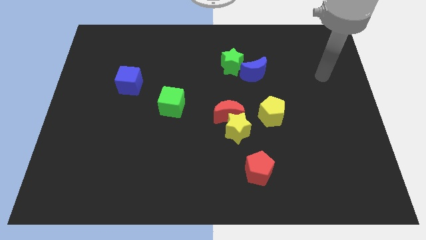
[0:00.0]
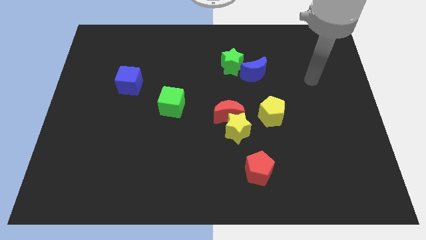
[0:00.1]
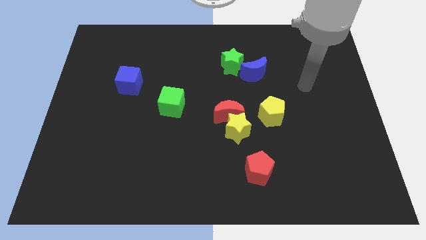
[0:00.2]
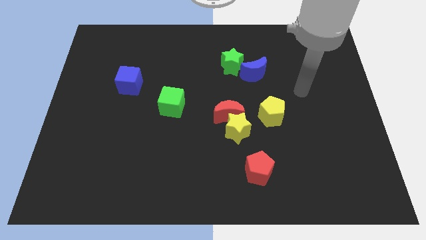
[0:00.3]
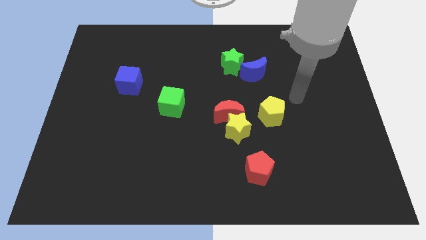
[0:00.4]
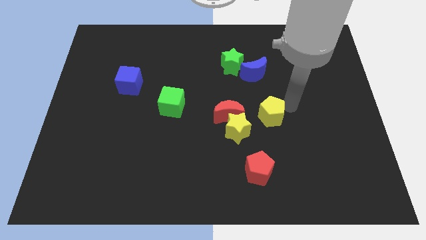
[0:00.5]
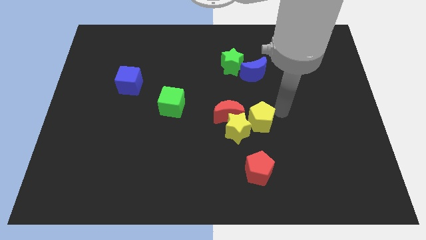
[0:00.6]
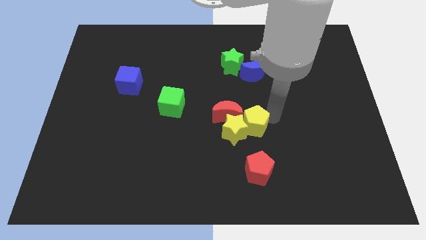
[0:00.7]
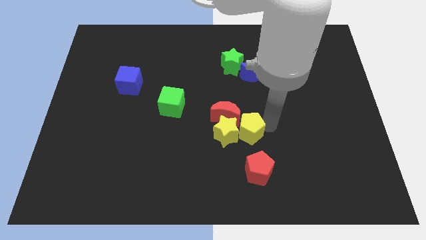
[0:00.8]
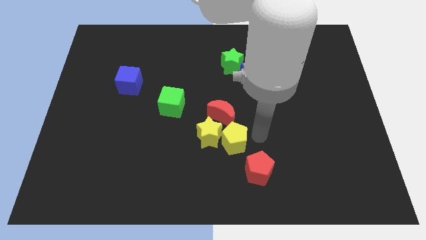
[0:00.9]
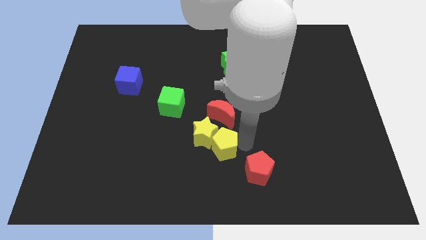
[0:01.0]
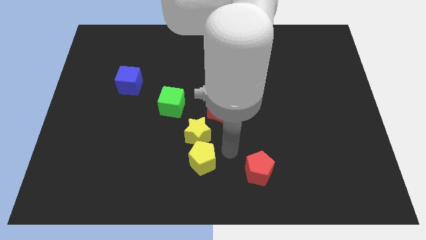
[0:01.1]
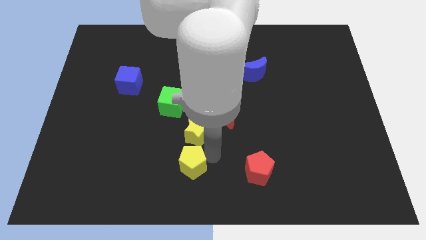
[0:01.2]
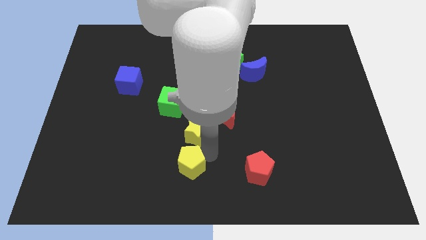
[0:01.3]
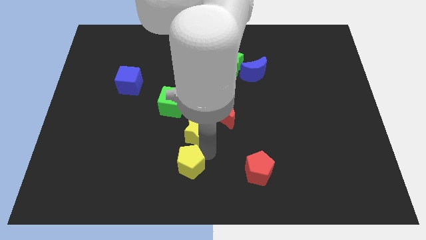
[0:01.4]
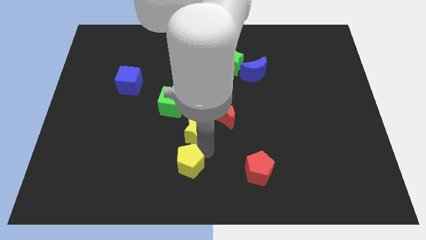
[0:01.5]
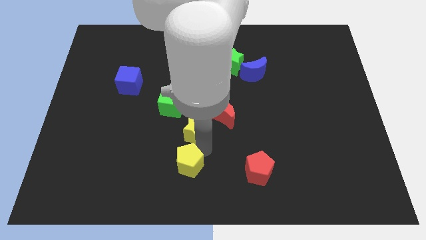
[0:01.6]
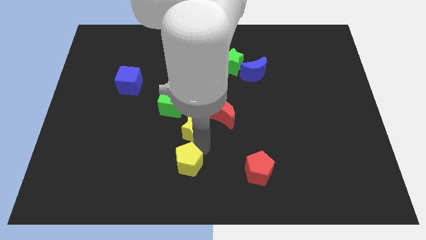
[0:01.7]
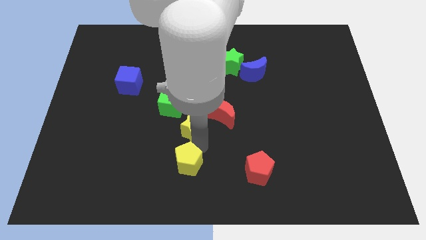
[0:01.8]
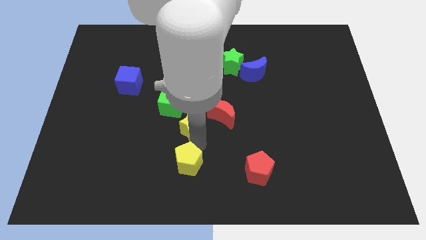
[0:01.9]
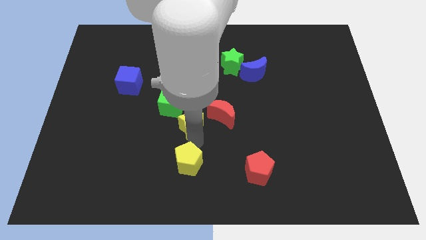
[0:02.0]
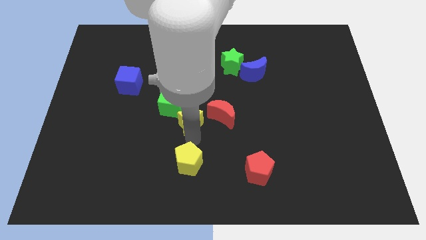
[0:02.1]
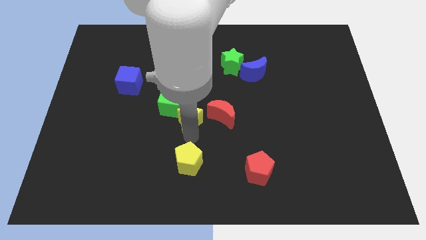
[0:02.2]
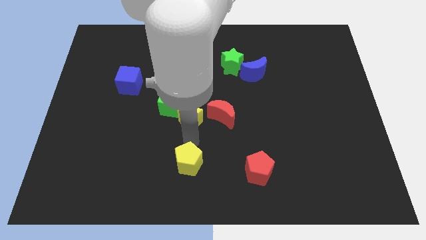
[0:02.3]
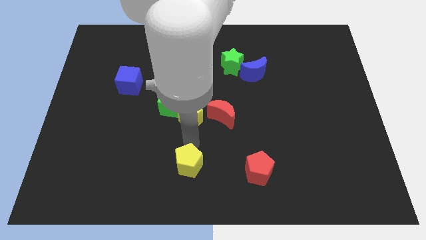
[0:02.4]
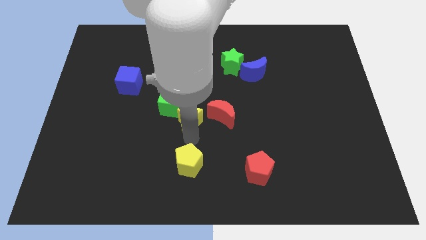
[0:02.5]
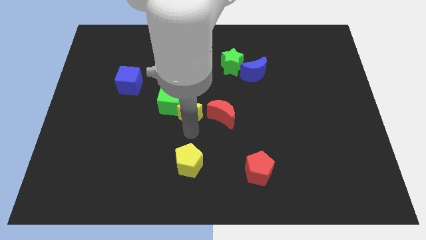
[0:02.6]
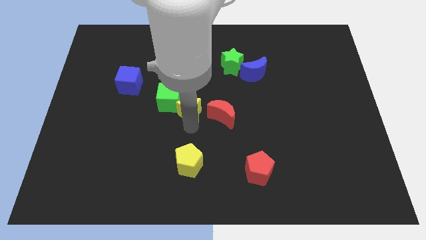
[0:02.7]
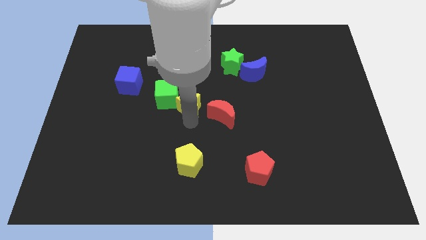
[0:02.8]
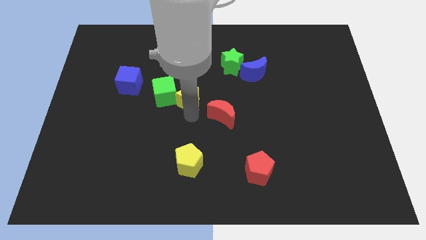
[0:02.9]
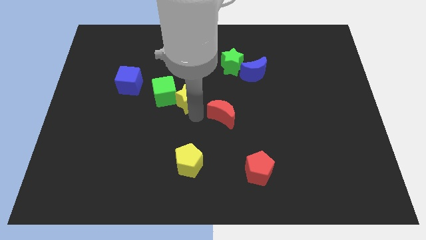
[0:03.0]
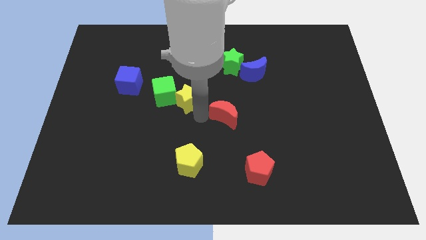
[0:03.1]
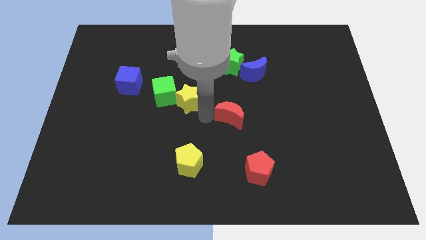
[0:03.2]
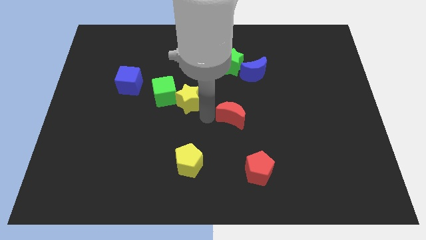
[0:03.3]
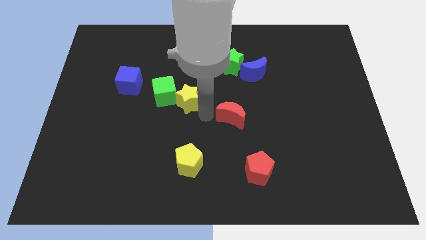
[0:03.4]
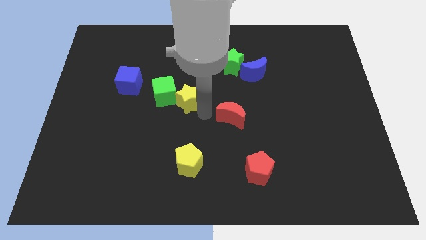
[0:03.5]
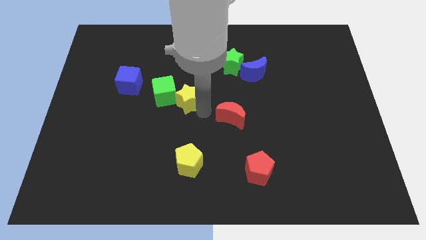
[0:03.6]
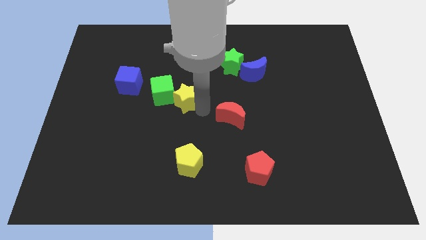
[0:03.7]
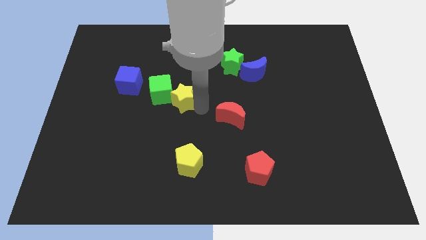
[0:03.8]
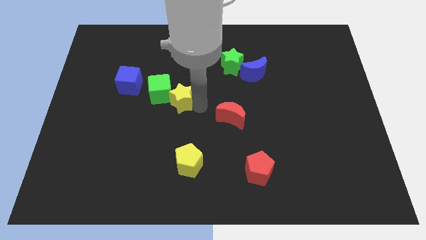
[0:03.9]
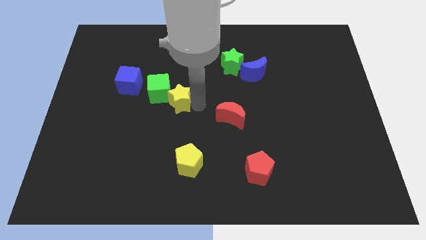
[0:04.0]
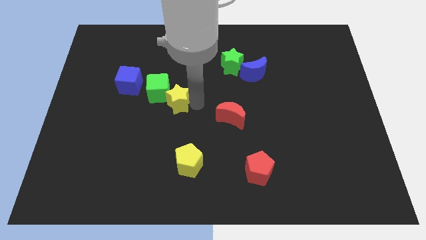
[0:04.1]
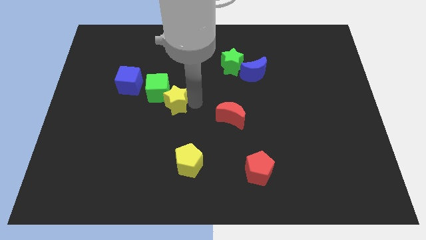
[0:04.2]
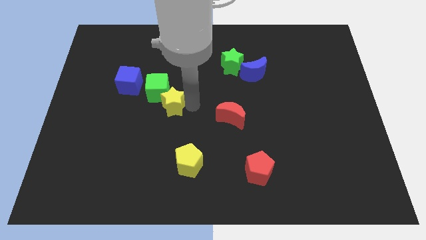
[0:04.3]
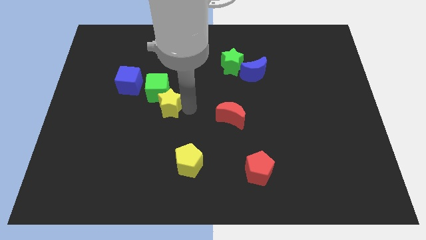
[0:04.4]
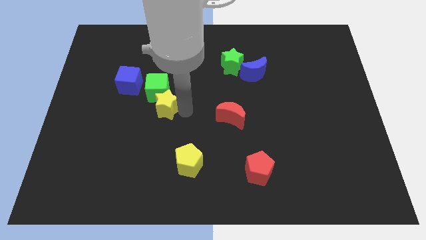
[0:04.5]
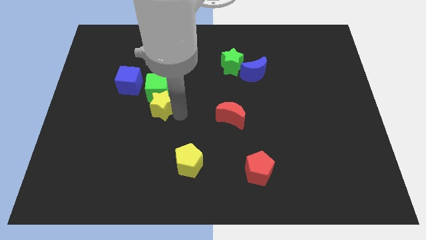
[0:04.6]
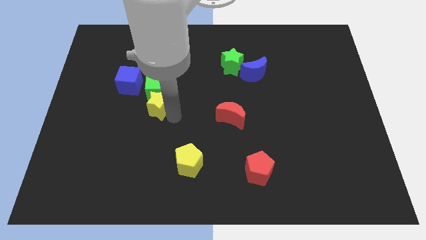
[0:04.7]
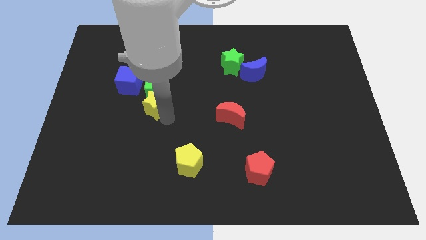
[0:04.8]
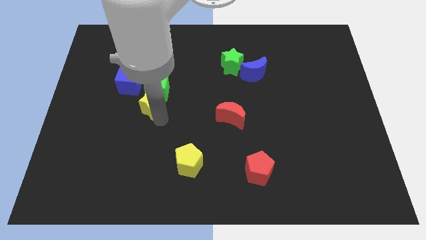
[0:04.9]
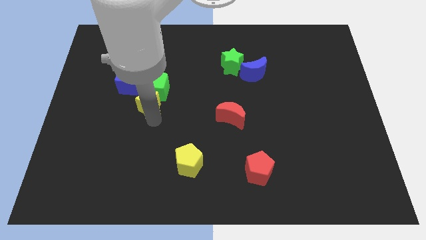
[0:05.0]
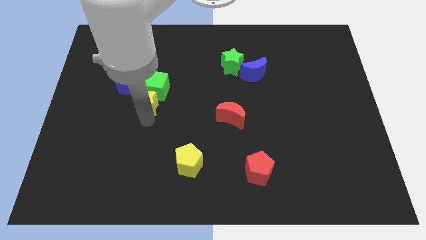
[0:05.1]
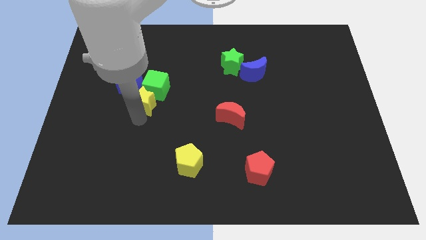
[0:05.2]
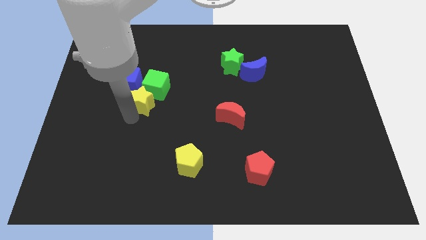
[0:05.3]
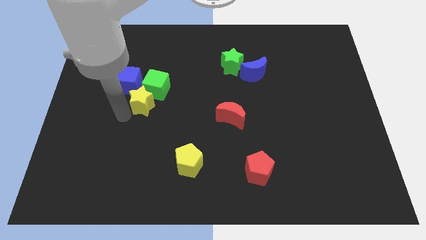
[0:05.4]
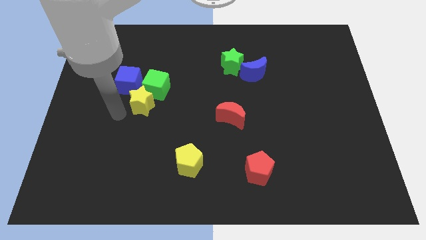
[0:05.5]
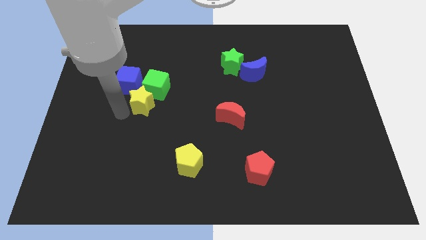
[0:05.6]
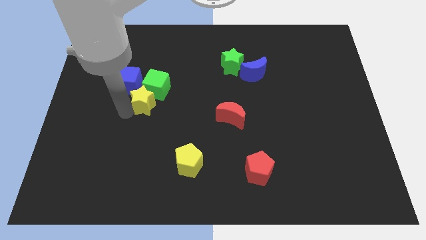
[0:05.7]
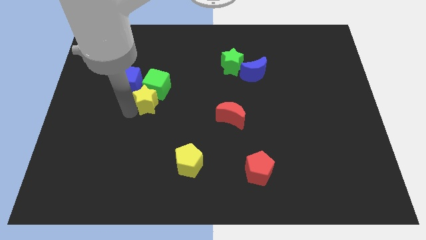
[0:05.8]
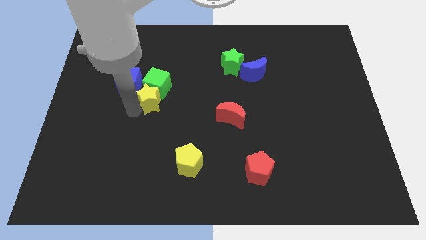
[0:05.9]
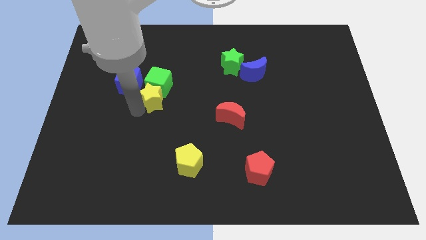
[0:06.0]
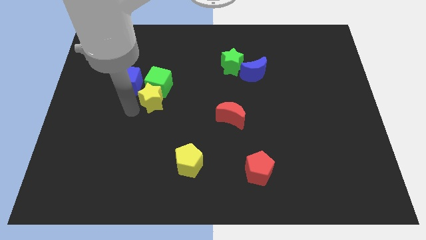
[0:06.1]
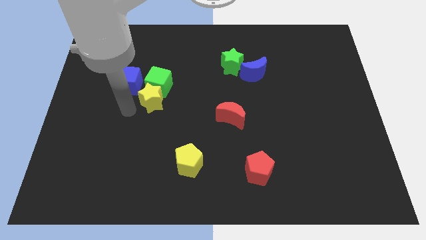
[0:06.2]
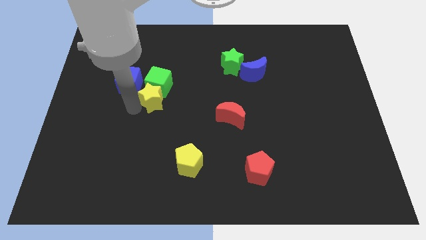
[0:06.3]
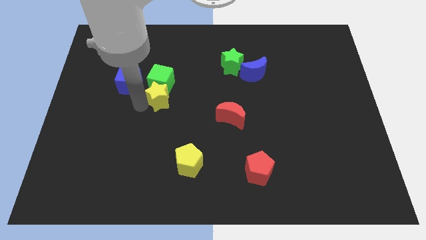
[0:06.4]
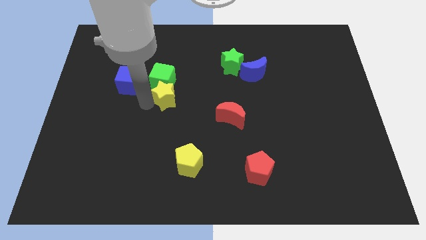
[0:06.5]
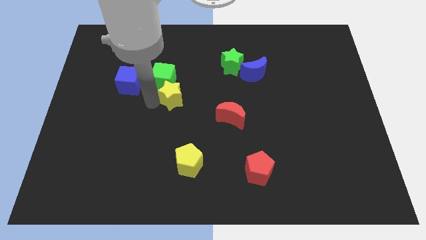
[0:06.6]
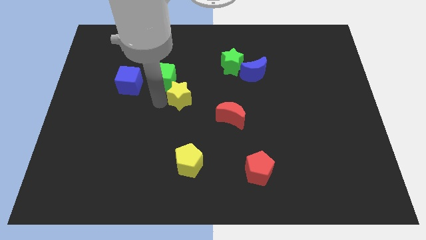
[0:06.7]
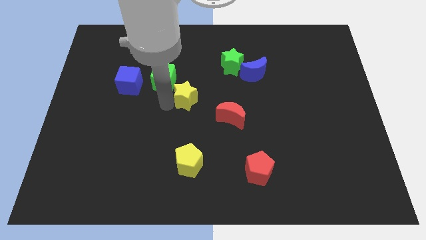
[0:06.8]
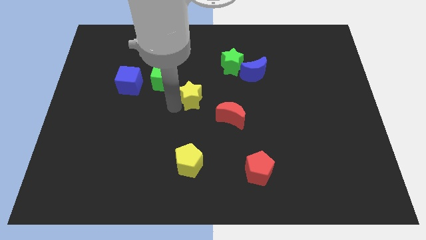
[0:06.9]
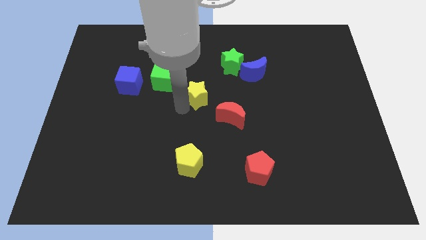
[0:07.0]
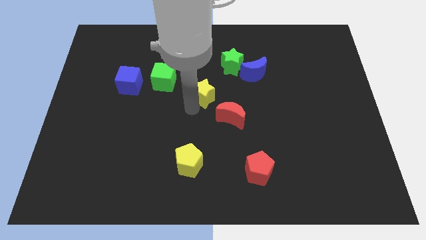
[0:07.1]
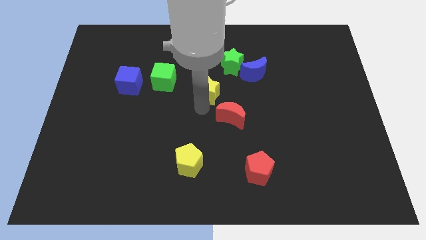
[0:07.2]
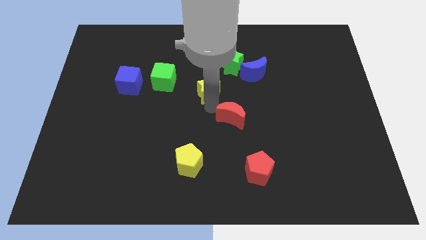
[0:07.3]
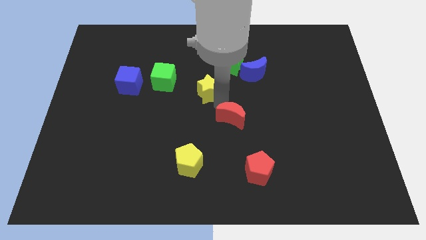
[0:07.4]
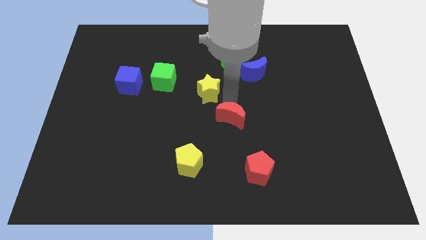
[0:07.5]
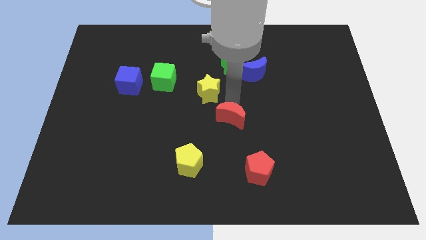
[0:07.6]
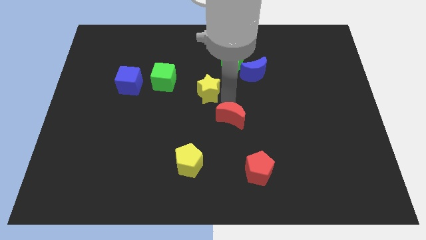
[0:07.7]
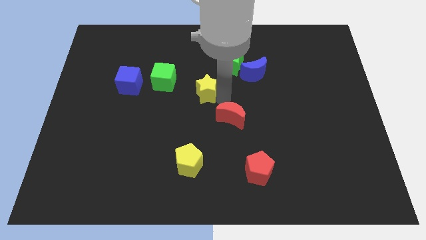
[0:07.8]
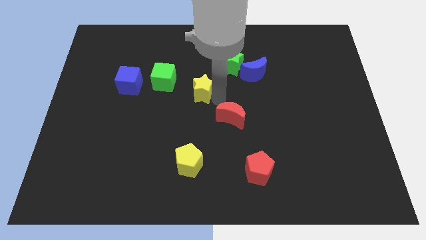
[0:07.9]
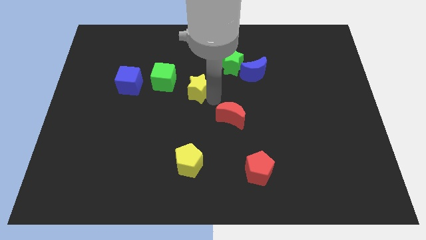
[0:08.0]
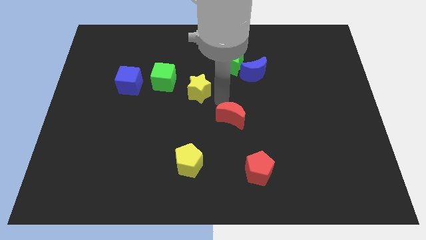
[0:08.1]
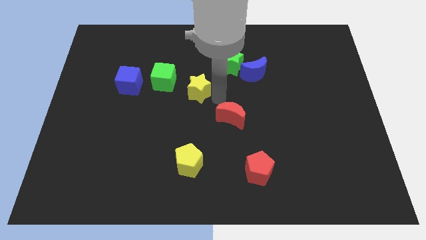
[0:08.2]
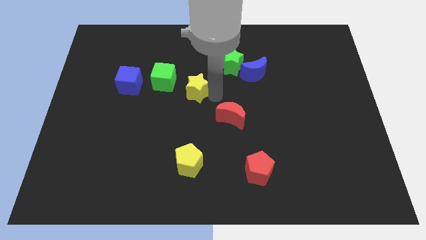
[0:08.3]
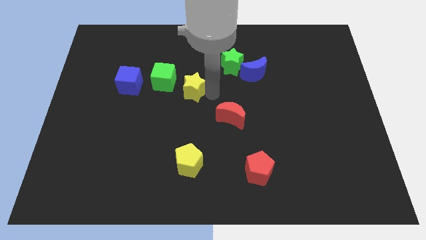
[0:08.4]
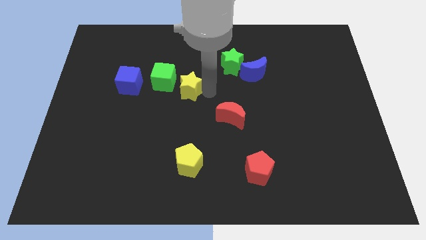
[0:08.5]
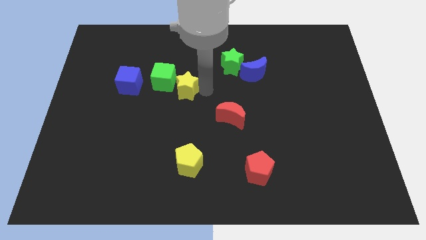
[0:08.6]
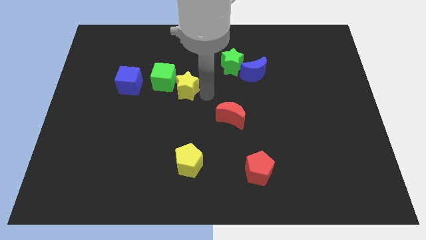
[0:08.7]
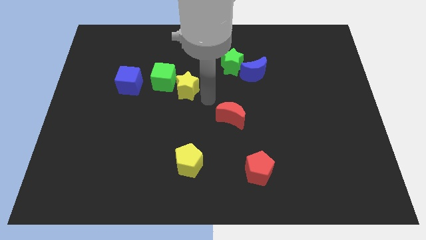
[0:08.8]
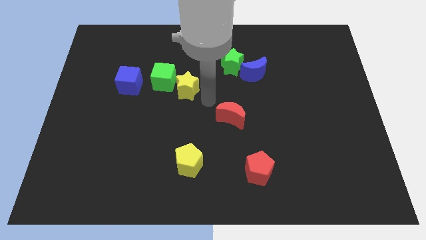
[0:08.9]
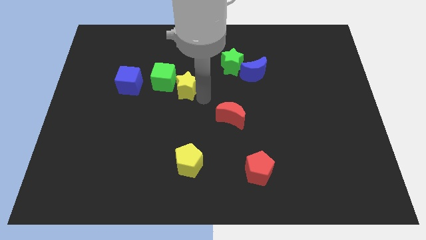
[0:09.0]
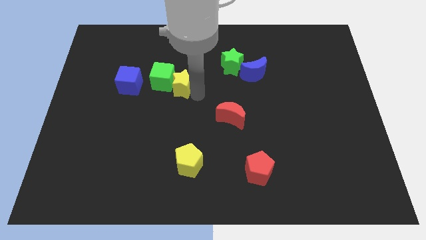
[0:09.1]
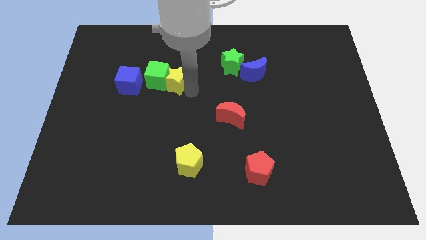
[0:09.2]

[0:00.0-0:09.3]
slide the yellow star upwards and left
